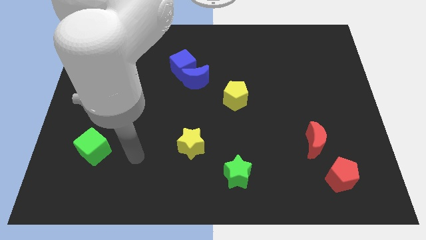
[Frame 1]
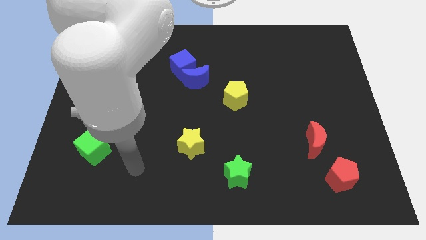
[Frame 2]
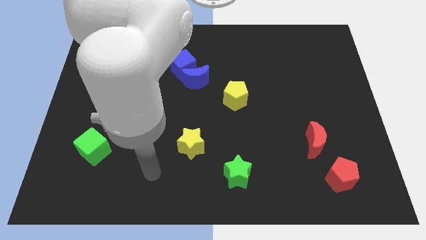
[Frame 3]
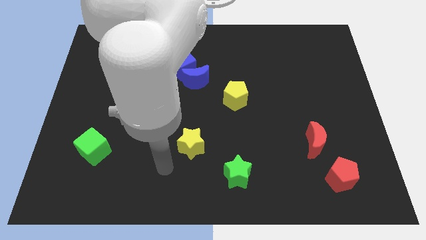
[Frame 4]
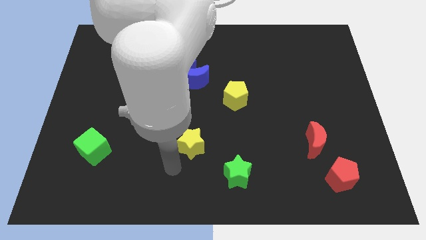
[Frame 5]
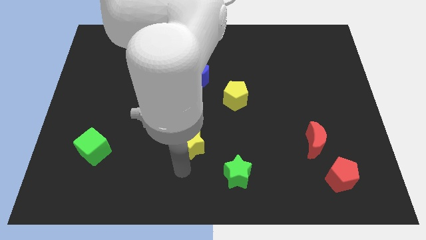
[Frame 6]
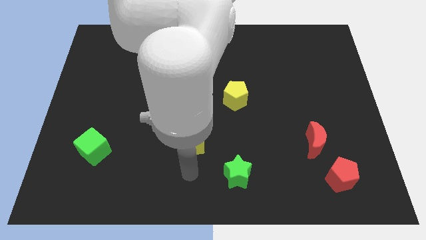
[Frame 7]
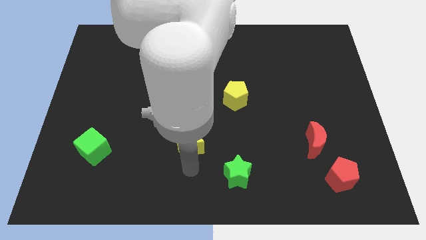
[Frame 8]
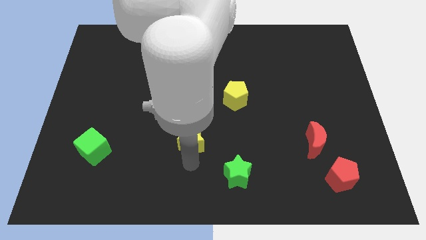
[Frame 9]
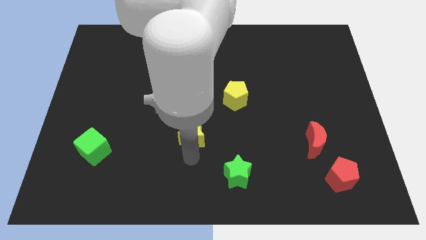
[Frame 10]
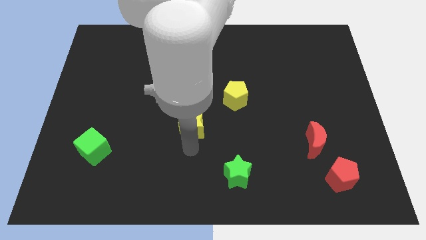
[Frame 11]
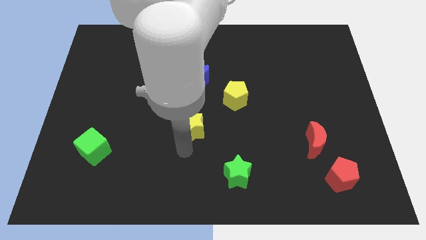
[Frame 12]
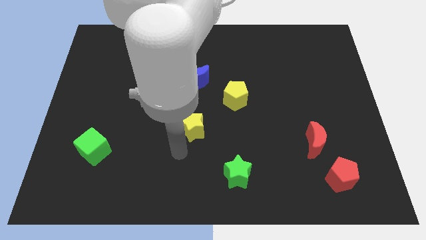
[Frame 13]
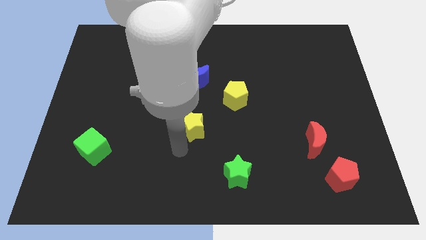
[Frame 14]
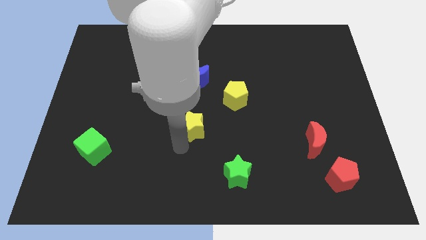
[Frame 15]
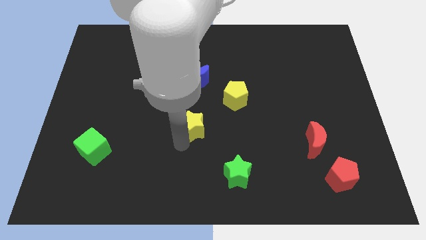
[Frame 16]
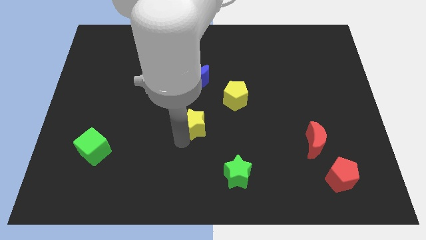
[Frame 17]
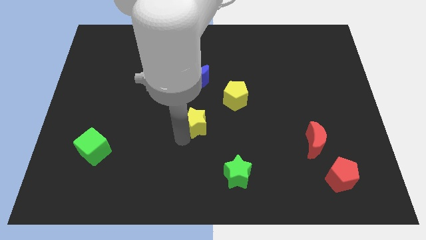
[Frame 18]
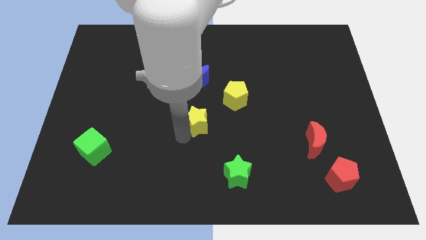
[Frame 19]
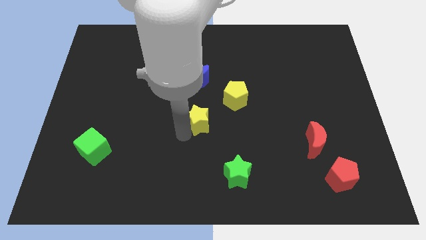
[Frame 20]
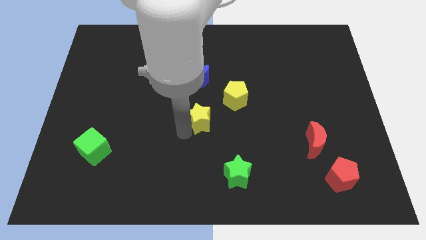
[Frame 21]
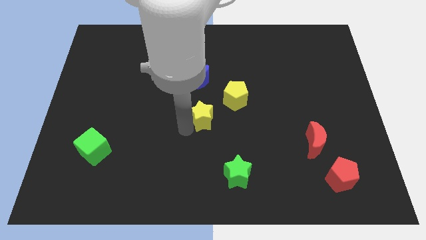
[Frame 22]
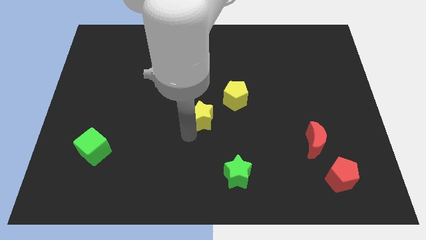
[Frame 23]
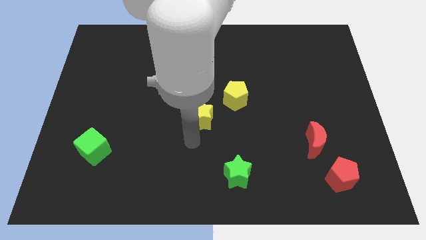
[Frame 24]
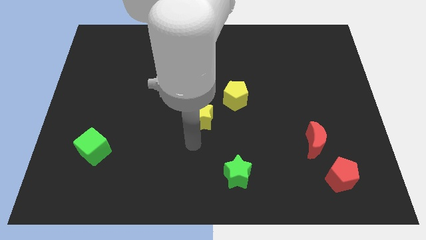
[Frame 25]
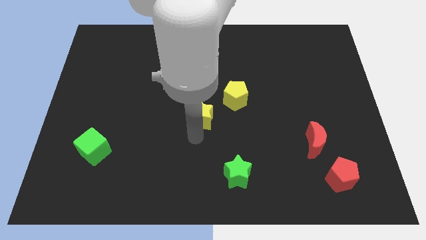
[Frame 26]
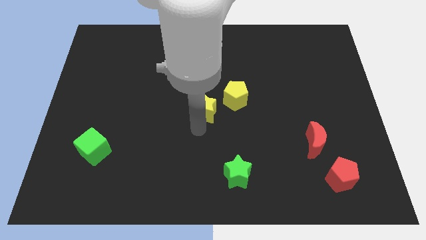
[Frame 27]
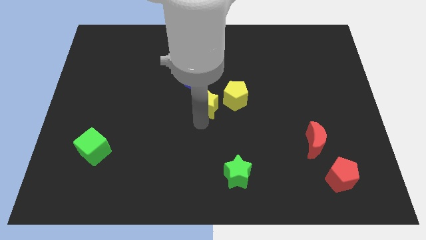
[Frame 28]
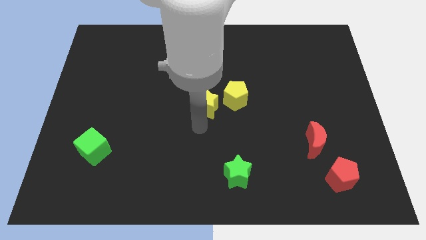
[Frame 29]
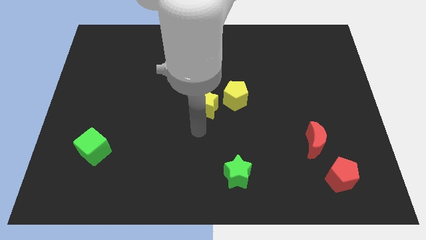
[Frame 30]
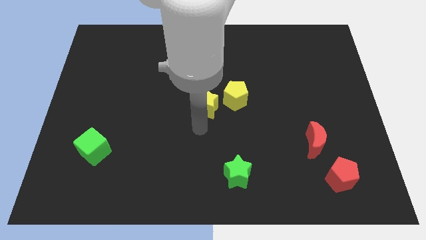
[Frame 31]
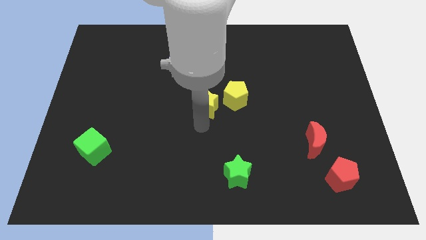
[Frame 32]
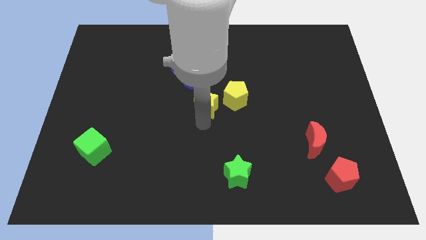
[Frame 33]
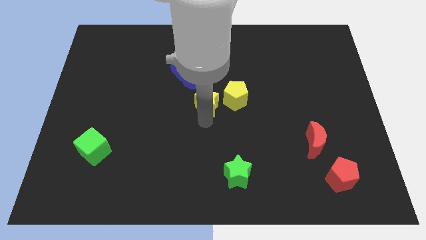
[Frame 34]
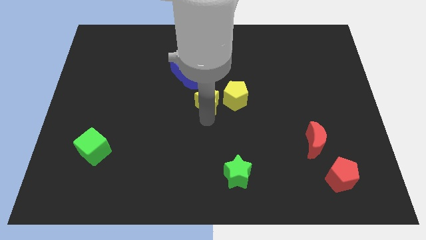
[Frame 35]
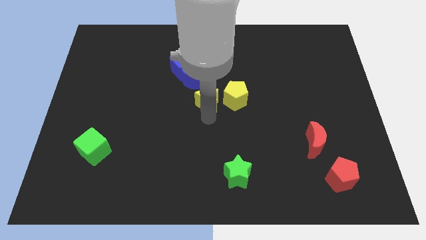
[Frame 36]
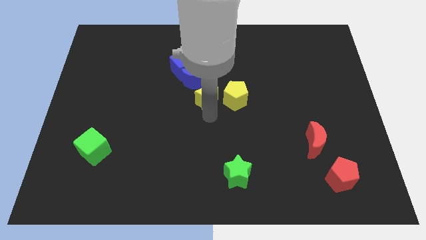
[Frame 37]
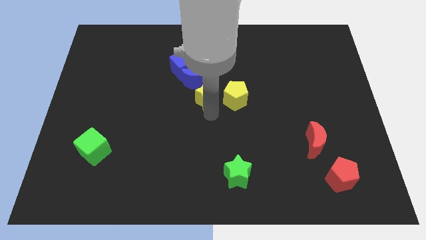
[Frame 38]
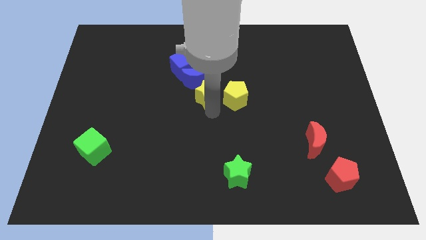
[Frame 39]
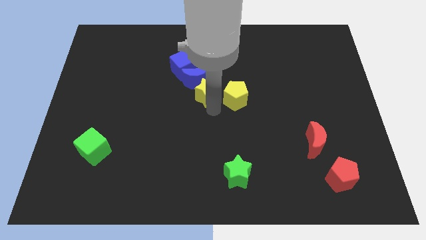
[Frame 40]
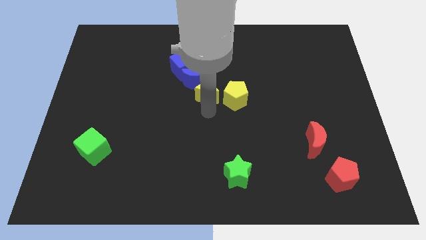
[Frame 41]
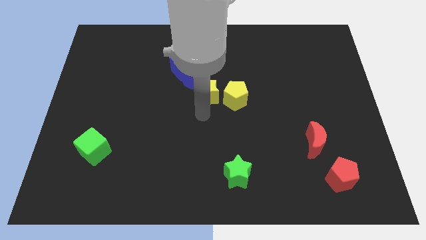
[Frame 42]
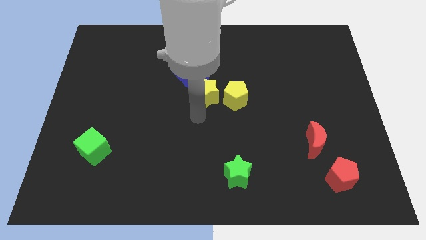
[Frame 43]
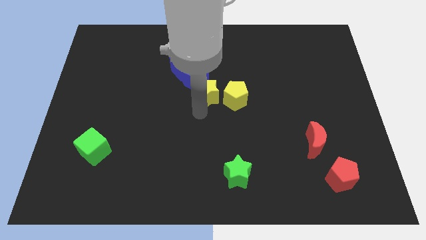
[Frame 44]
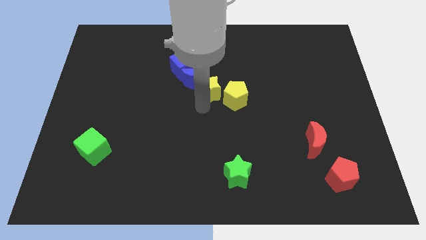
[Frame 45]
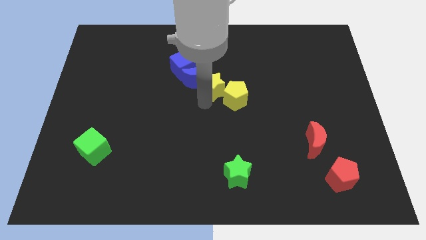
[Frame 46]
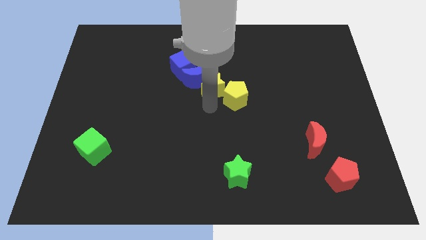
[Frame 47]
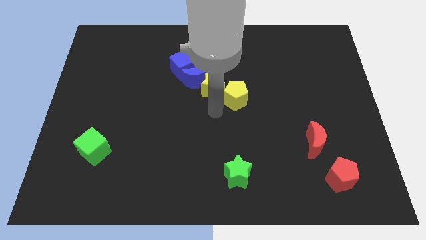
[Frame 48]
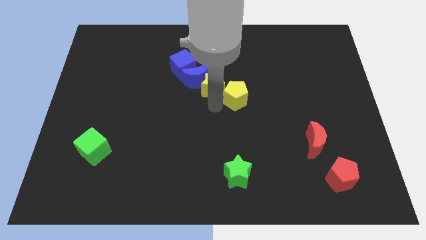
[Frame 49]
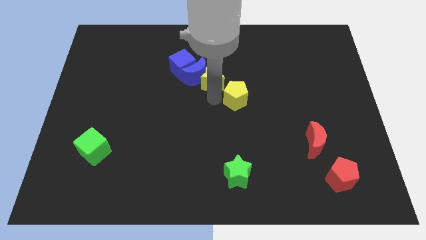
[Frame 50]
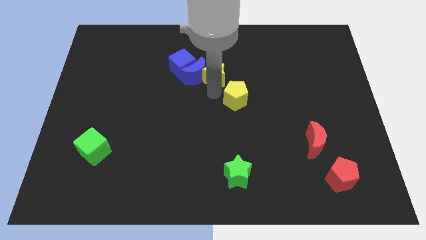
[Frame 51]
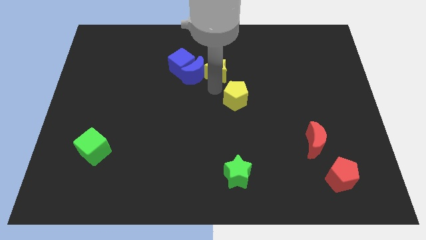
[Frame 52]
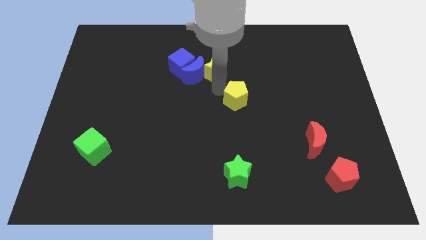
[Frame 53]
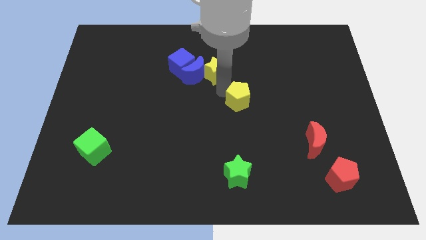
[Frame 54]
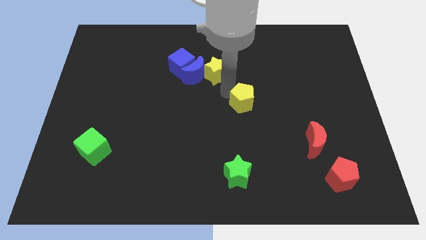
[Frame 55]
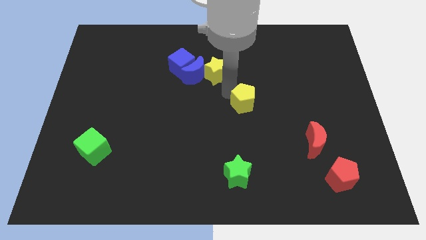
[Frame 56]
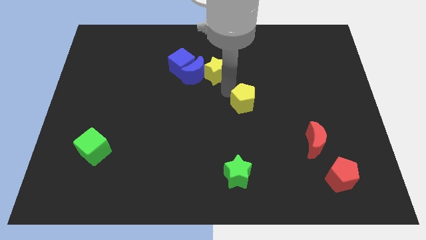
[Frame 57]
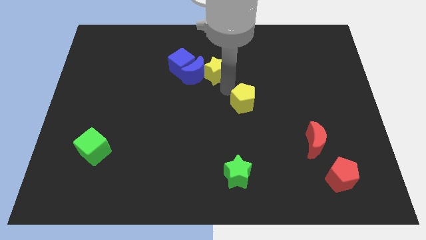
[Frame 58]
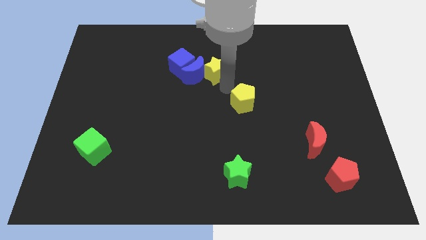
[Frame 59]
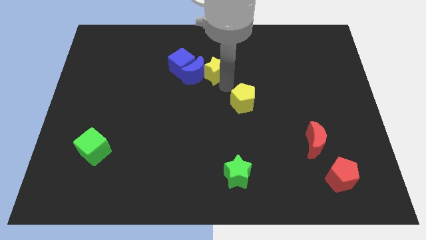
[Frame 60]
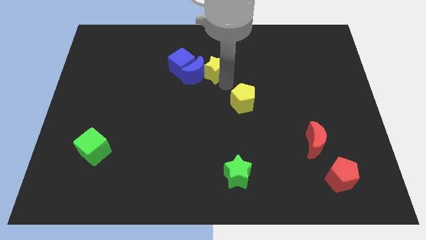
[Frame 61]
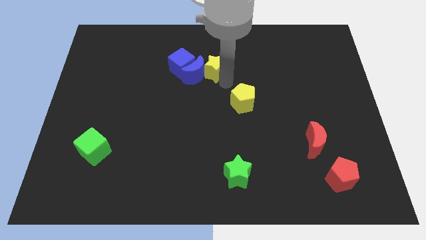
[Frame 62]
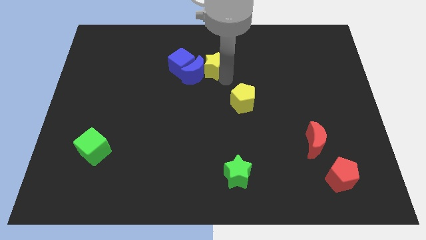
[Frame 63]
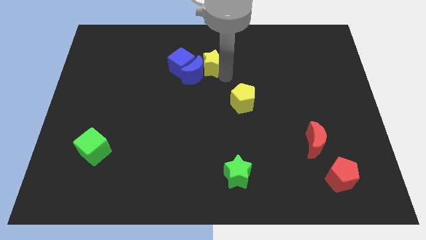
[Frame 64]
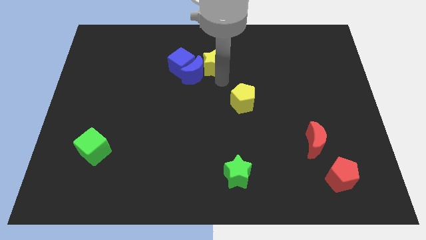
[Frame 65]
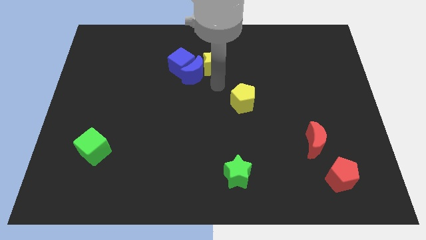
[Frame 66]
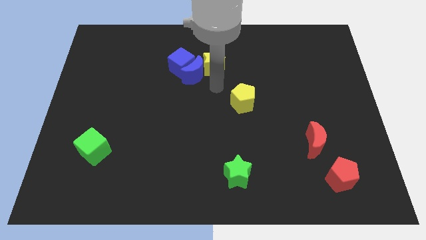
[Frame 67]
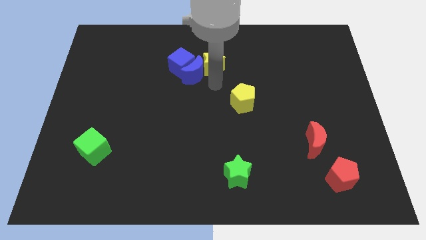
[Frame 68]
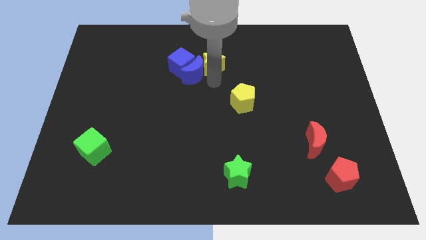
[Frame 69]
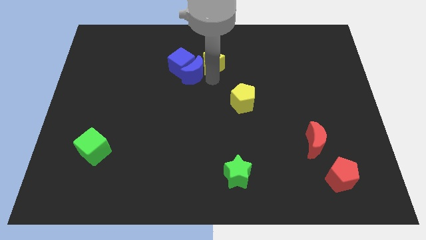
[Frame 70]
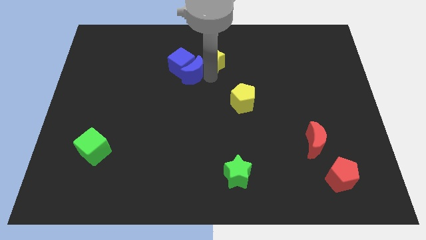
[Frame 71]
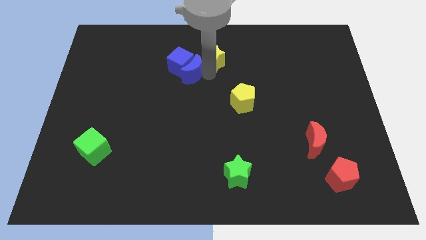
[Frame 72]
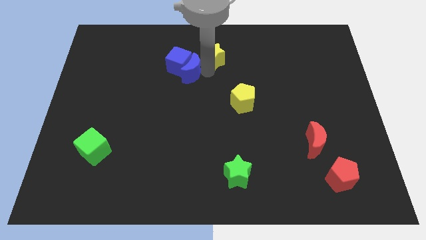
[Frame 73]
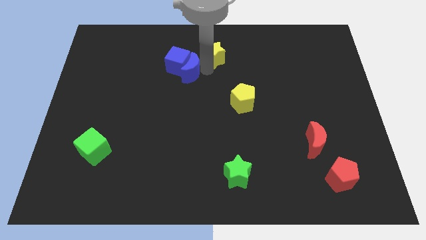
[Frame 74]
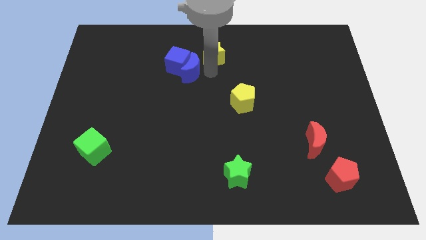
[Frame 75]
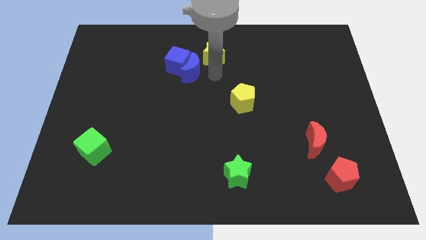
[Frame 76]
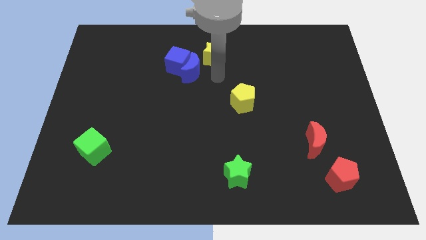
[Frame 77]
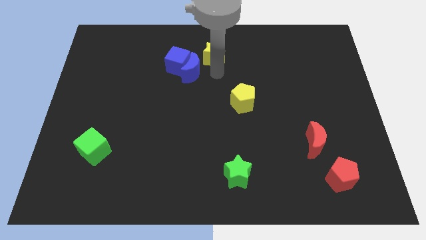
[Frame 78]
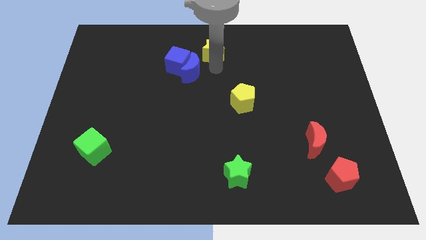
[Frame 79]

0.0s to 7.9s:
push the yellow star to the top
